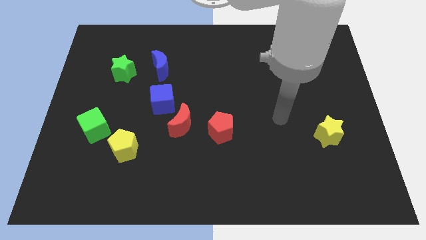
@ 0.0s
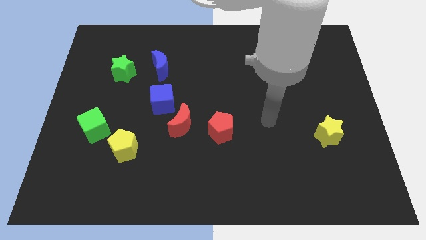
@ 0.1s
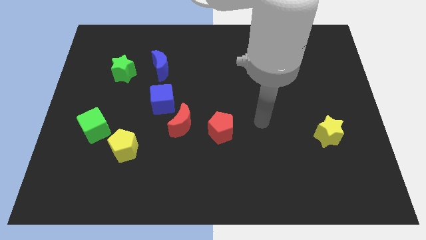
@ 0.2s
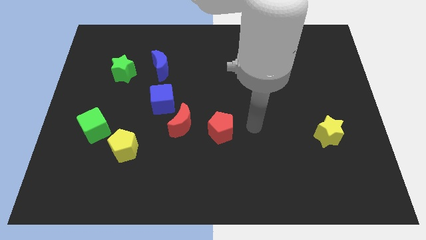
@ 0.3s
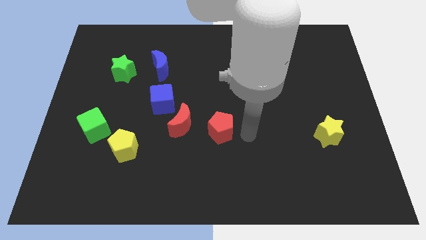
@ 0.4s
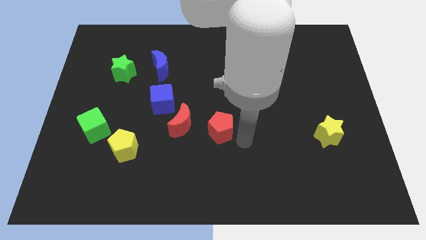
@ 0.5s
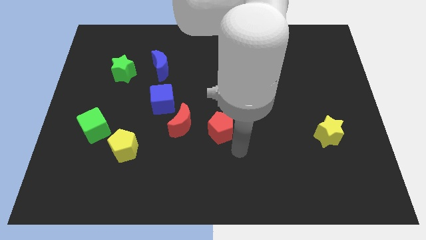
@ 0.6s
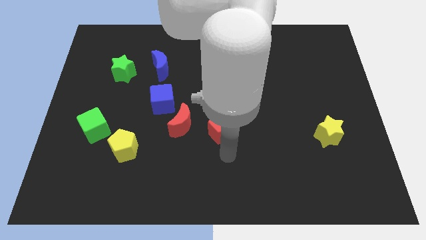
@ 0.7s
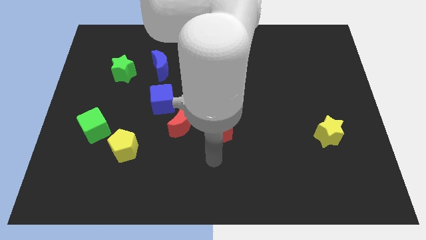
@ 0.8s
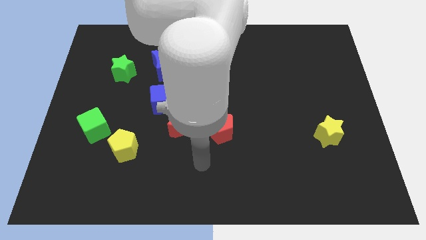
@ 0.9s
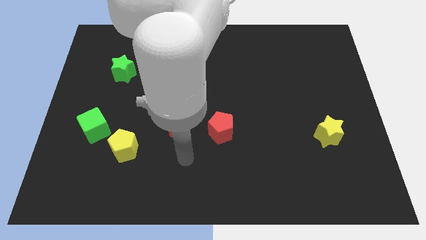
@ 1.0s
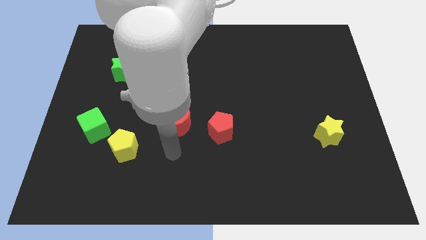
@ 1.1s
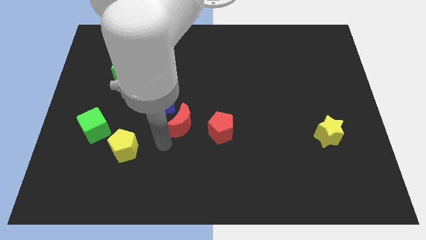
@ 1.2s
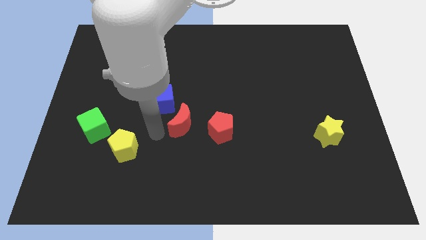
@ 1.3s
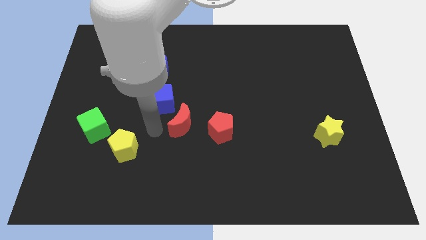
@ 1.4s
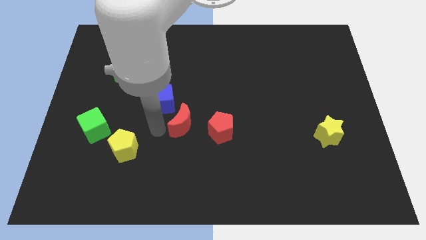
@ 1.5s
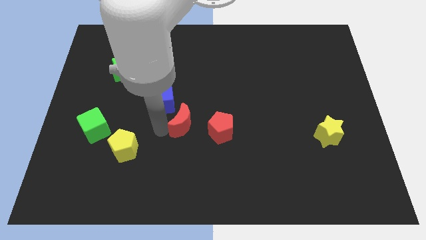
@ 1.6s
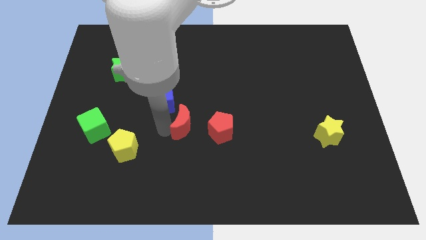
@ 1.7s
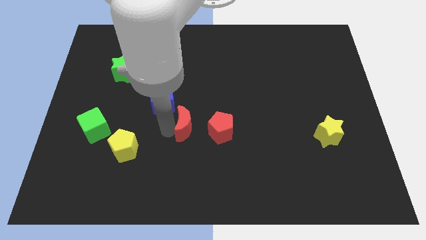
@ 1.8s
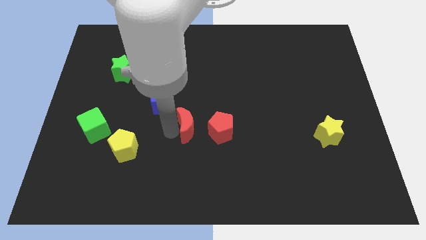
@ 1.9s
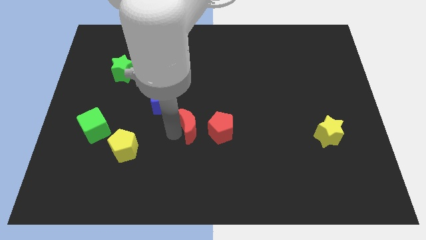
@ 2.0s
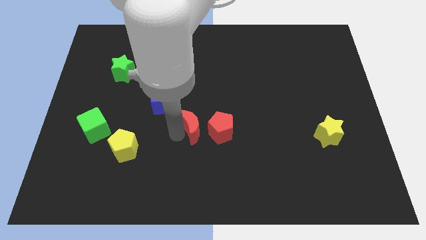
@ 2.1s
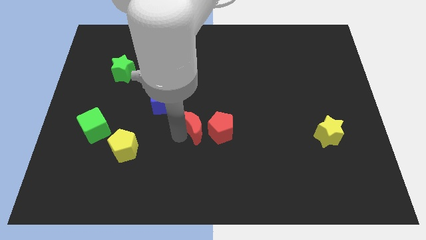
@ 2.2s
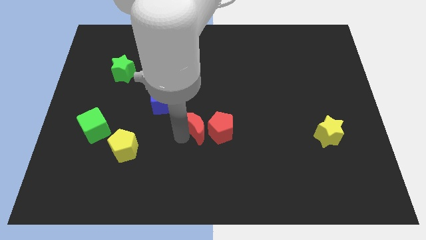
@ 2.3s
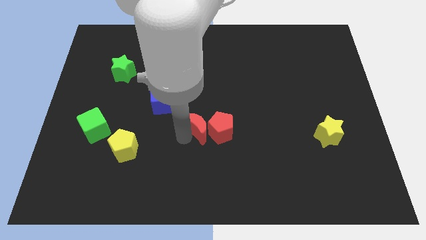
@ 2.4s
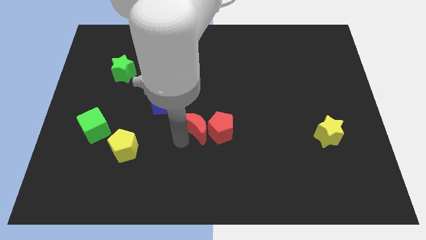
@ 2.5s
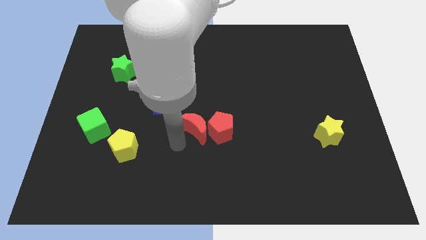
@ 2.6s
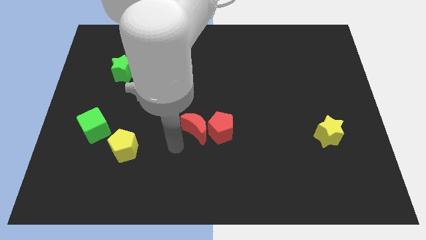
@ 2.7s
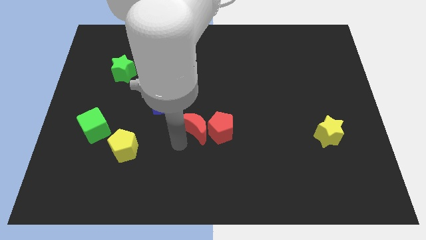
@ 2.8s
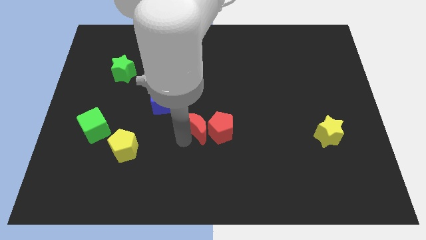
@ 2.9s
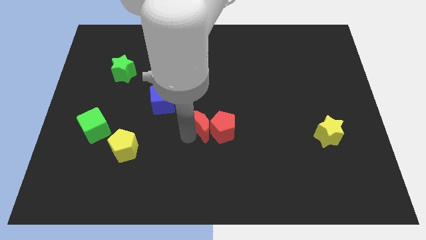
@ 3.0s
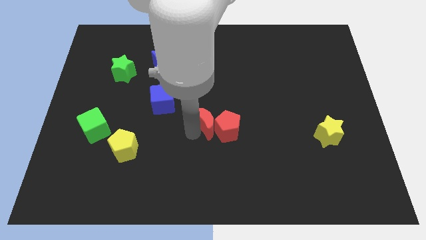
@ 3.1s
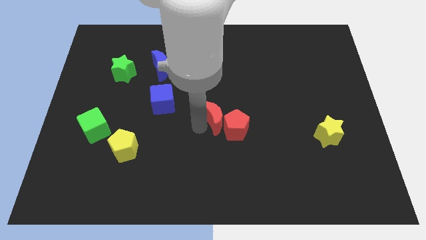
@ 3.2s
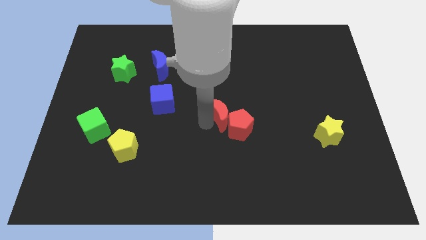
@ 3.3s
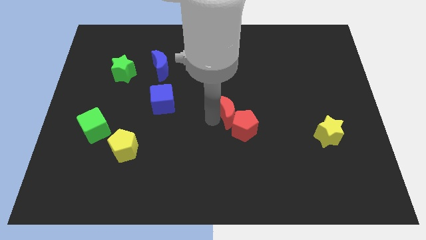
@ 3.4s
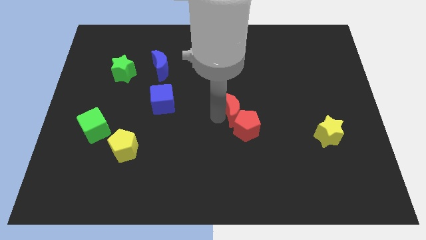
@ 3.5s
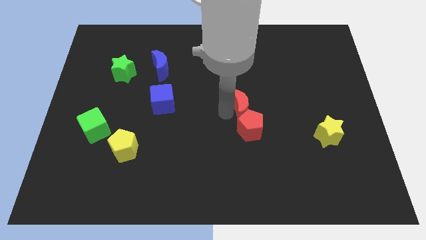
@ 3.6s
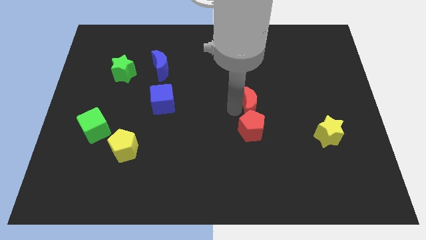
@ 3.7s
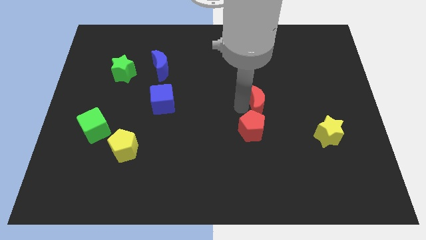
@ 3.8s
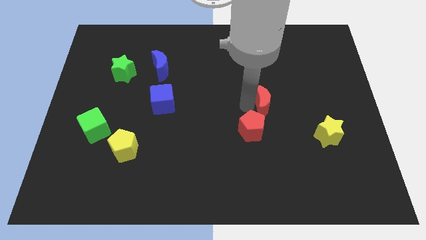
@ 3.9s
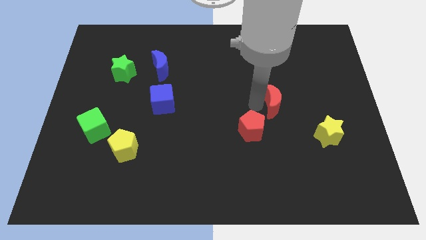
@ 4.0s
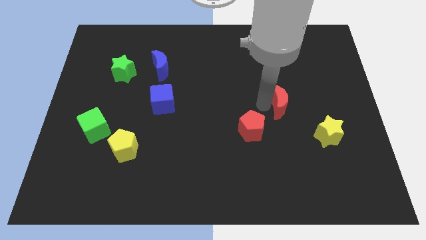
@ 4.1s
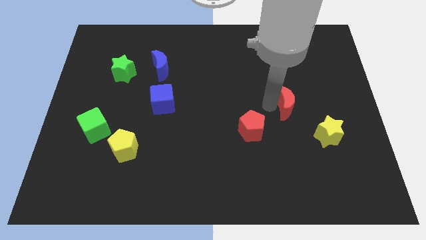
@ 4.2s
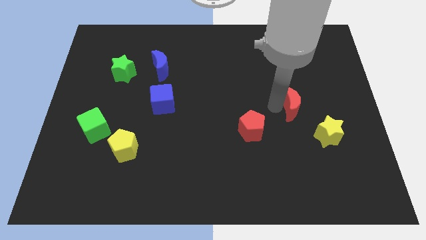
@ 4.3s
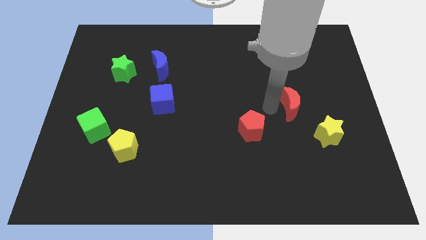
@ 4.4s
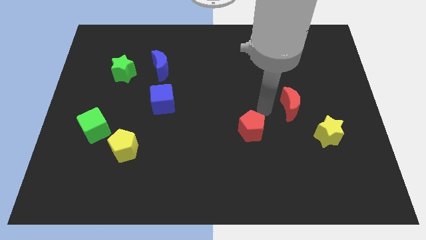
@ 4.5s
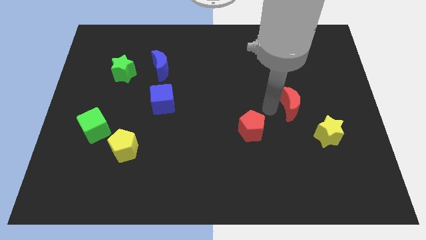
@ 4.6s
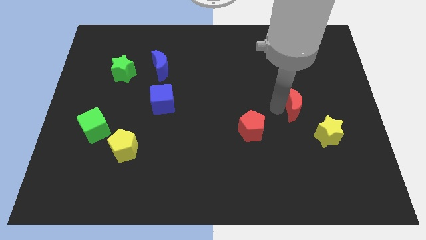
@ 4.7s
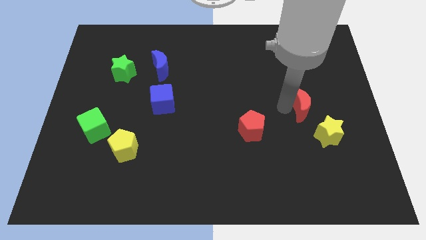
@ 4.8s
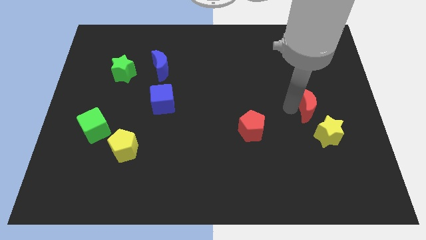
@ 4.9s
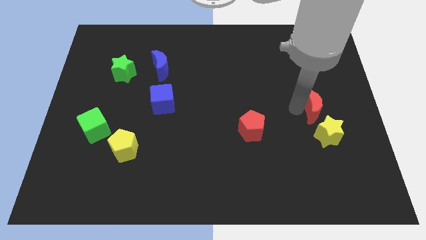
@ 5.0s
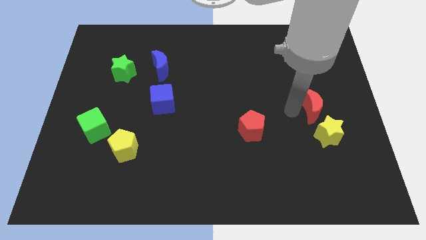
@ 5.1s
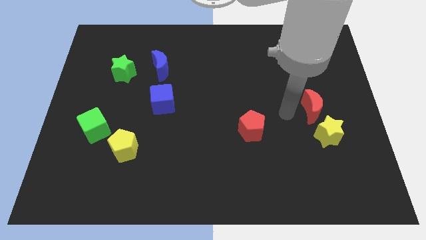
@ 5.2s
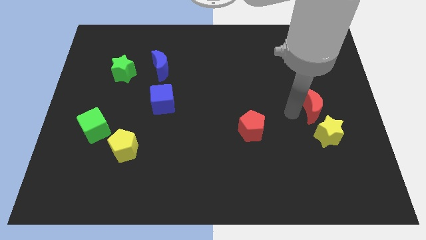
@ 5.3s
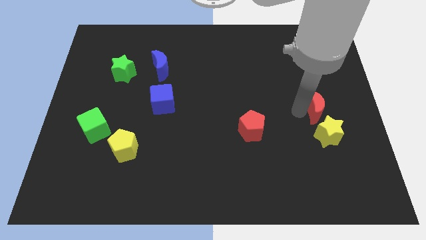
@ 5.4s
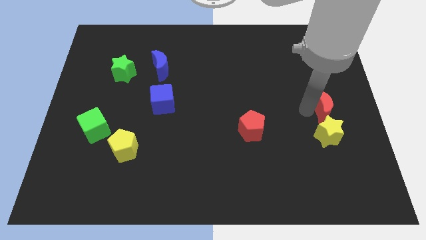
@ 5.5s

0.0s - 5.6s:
push the red moon to the right side of the board

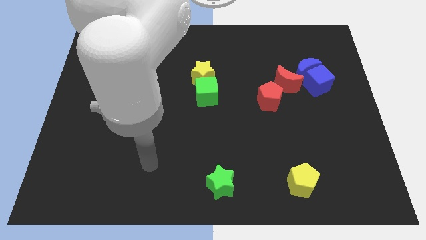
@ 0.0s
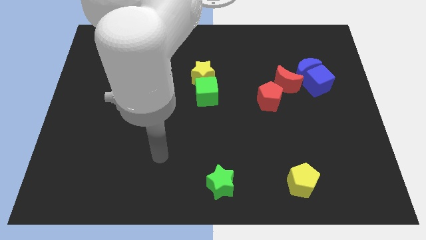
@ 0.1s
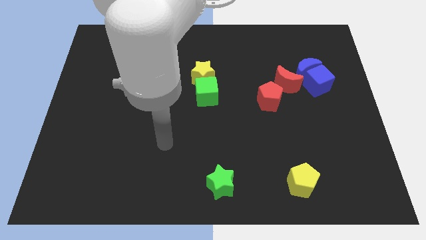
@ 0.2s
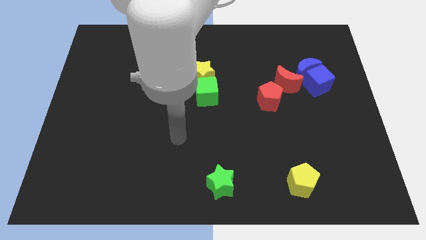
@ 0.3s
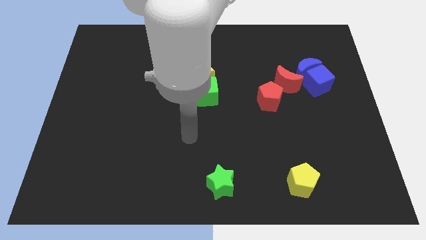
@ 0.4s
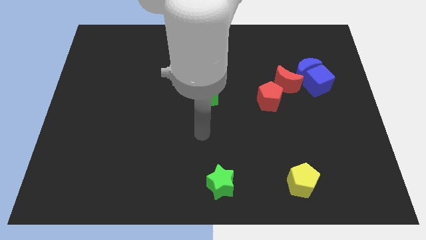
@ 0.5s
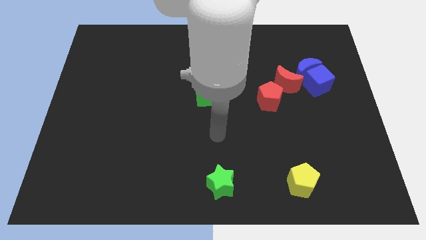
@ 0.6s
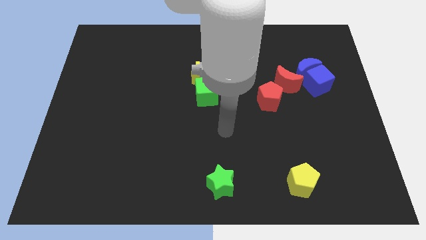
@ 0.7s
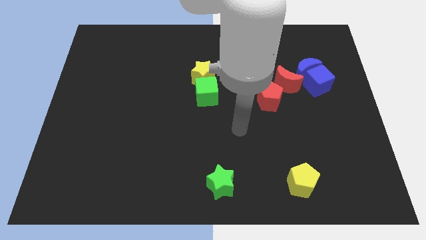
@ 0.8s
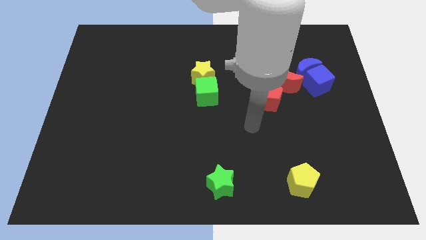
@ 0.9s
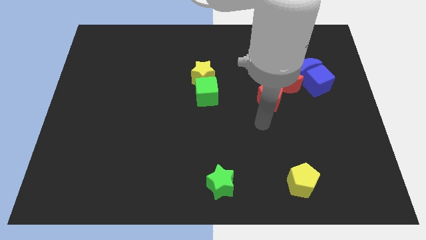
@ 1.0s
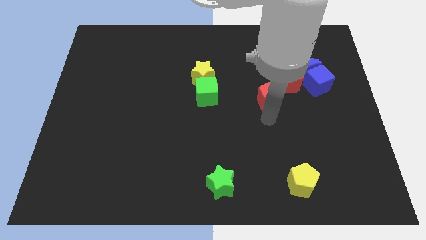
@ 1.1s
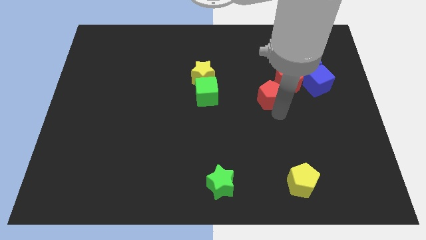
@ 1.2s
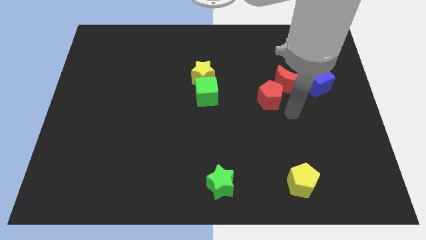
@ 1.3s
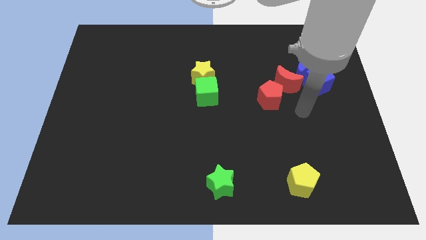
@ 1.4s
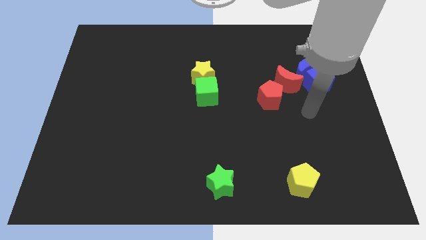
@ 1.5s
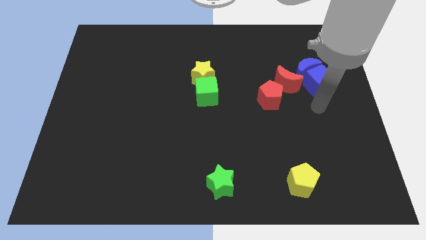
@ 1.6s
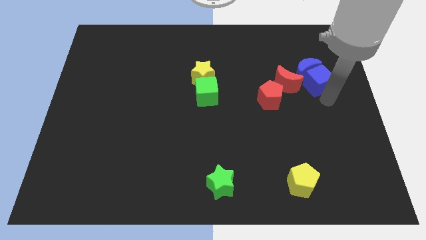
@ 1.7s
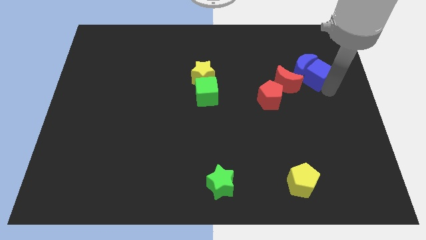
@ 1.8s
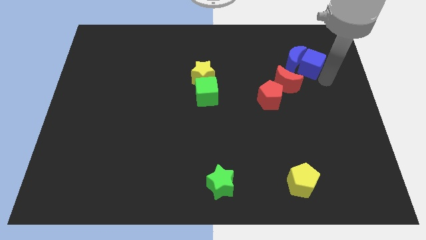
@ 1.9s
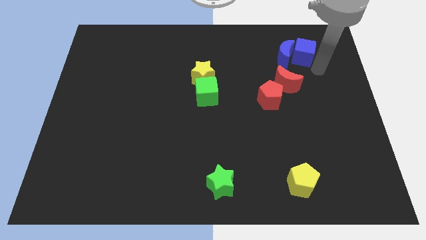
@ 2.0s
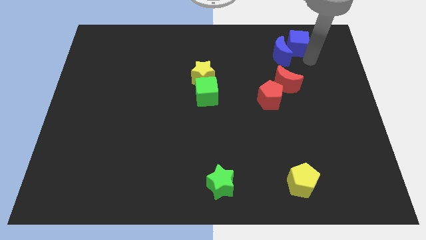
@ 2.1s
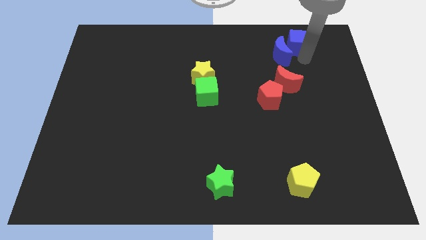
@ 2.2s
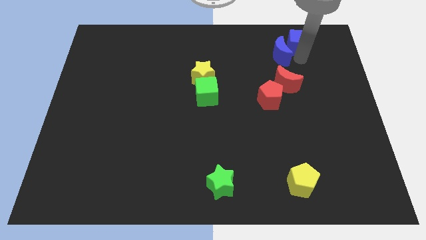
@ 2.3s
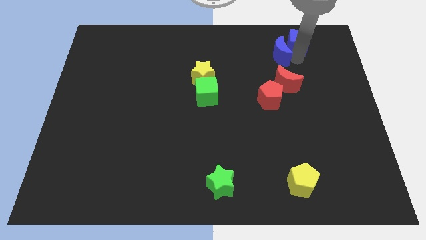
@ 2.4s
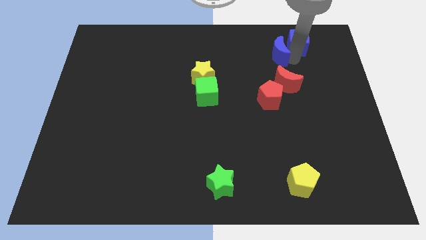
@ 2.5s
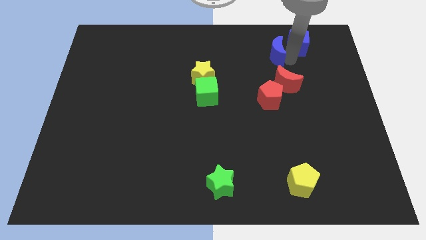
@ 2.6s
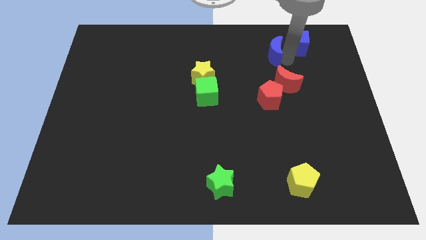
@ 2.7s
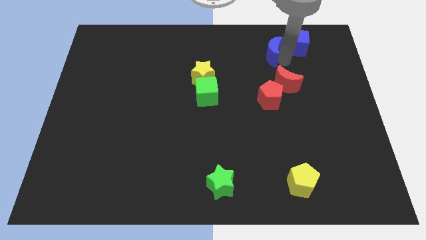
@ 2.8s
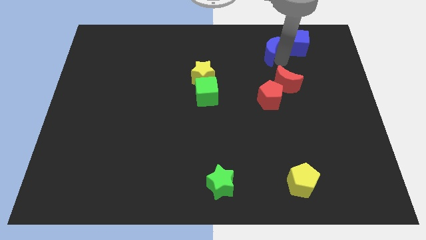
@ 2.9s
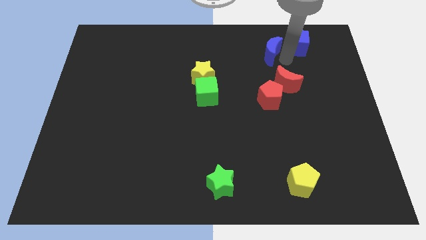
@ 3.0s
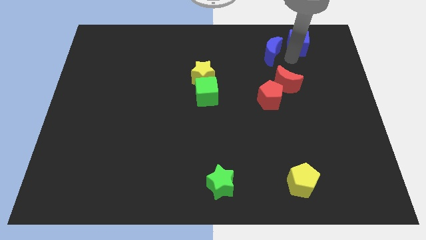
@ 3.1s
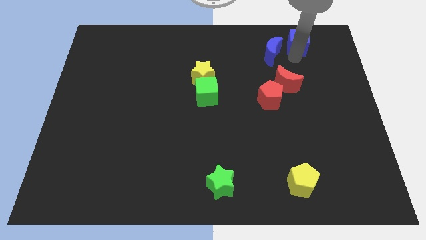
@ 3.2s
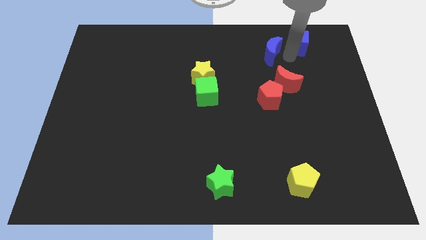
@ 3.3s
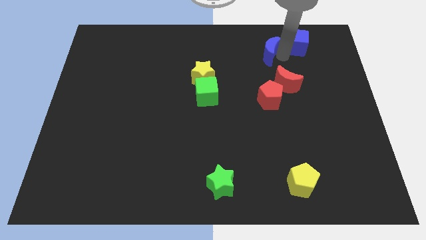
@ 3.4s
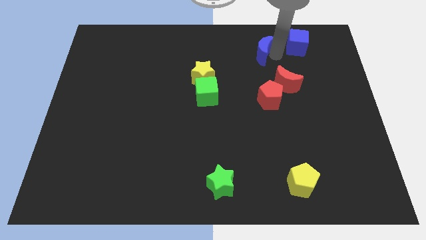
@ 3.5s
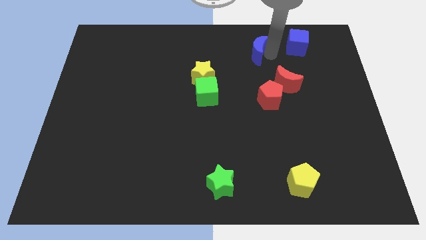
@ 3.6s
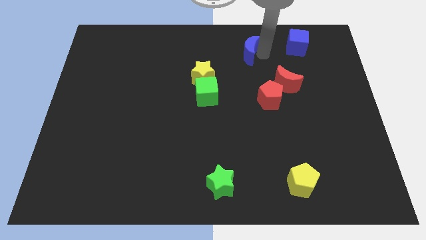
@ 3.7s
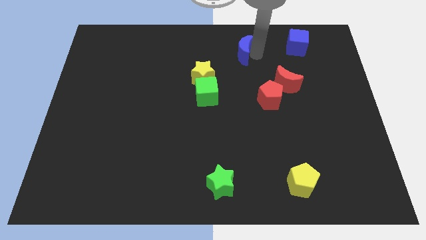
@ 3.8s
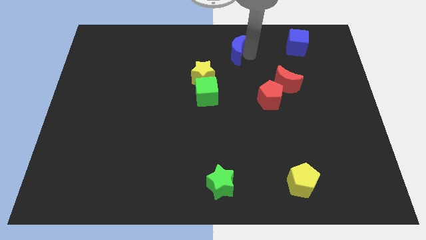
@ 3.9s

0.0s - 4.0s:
push the blue moon to the top side
